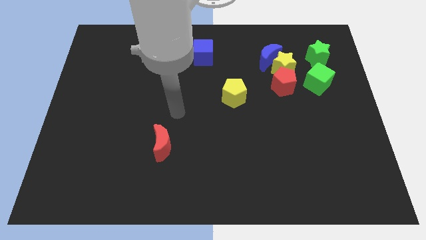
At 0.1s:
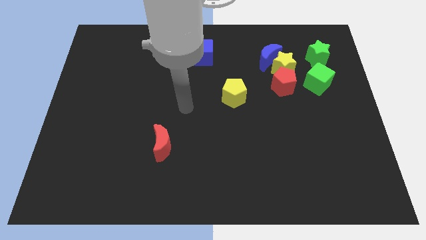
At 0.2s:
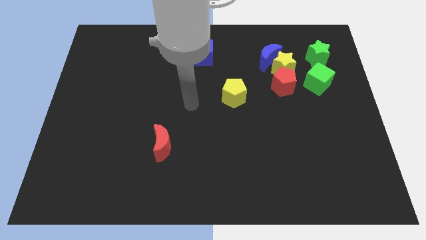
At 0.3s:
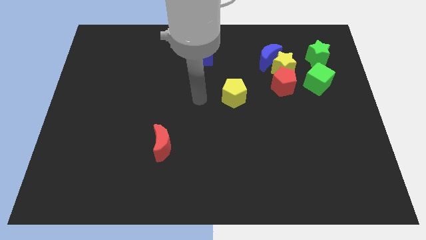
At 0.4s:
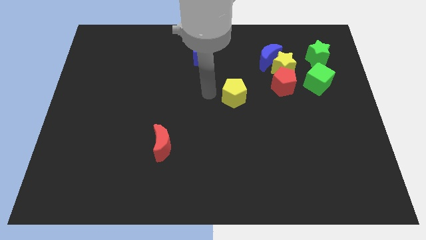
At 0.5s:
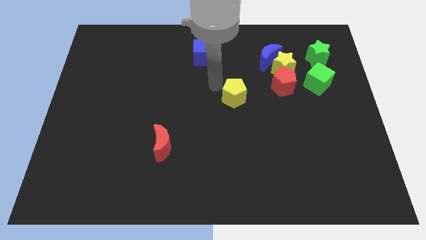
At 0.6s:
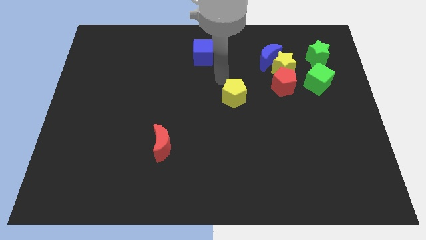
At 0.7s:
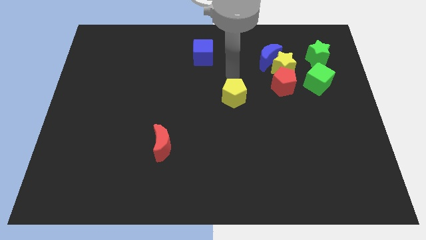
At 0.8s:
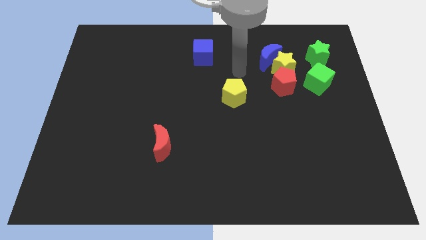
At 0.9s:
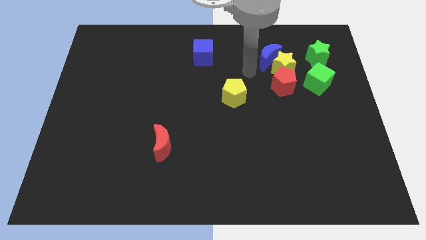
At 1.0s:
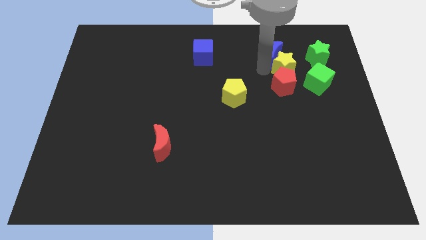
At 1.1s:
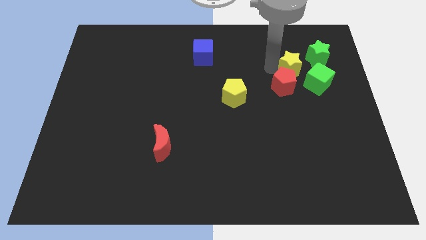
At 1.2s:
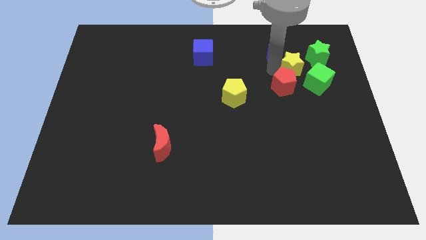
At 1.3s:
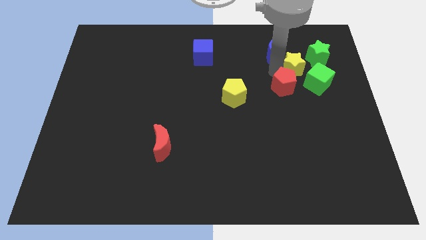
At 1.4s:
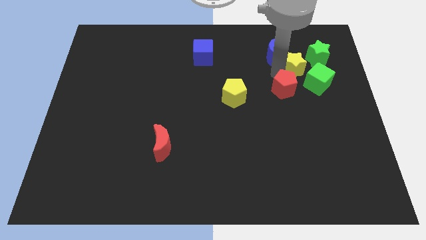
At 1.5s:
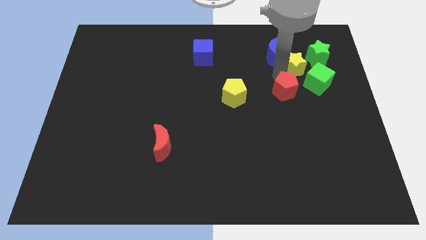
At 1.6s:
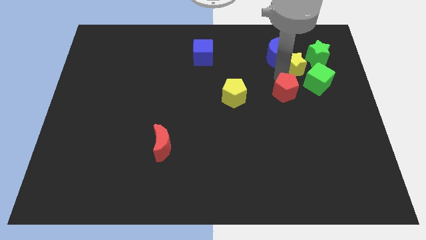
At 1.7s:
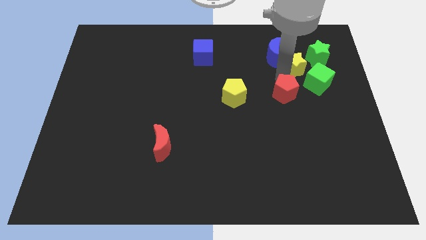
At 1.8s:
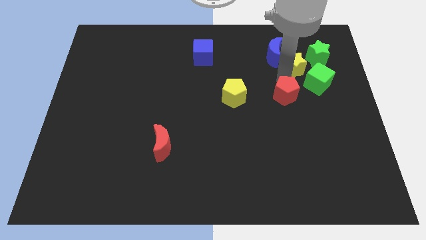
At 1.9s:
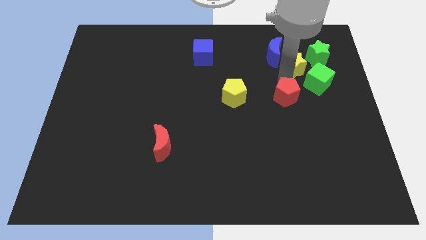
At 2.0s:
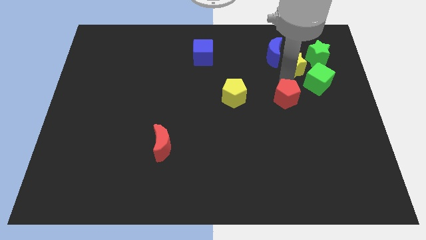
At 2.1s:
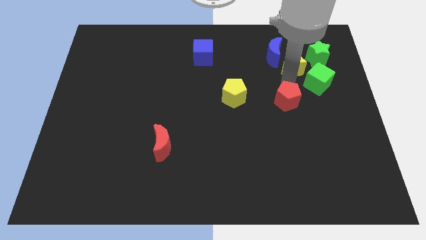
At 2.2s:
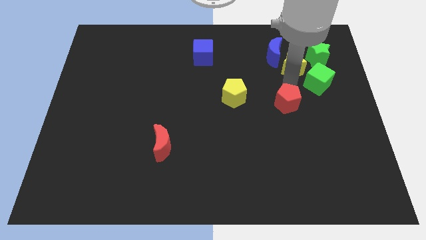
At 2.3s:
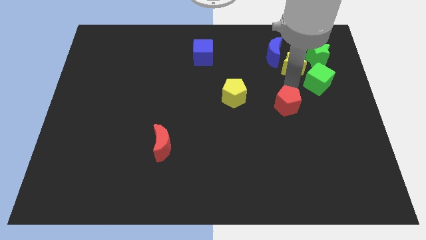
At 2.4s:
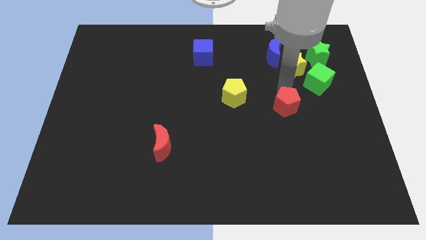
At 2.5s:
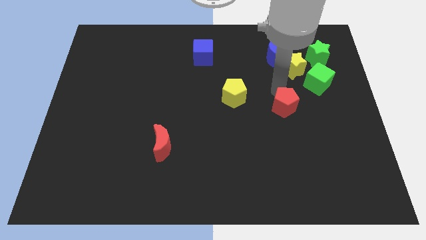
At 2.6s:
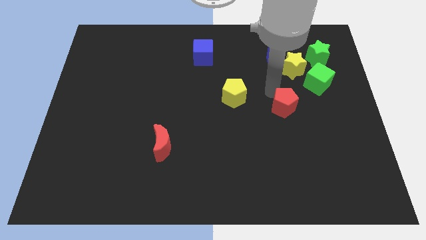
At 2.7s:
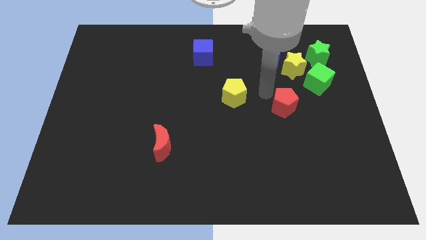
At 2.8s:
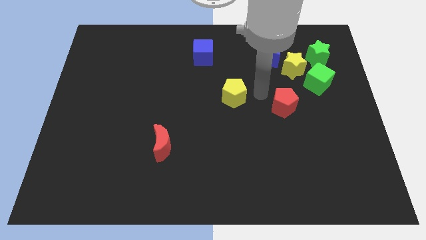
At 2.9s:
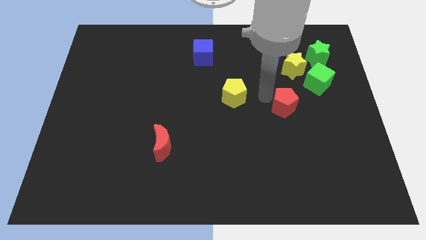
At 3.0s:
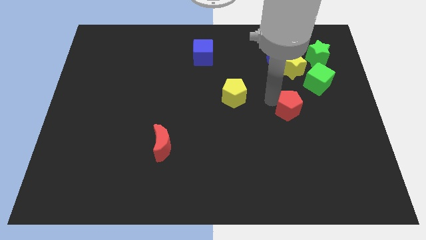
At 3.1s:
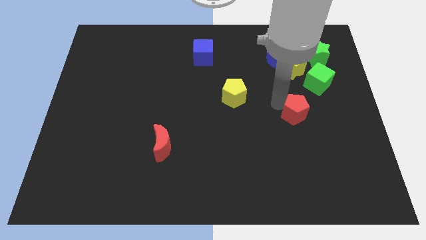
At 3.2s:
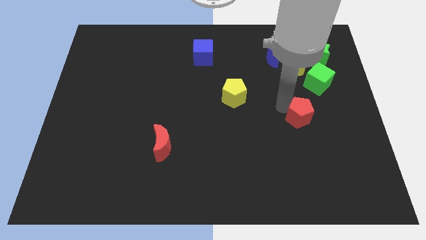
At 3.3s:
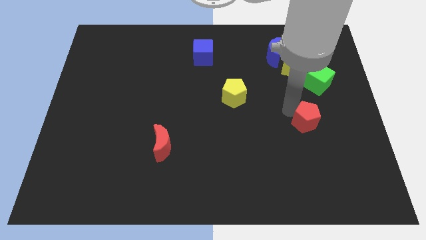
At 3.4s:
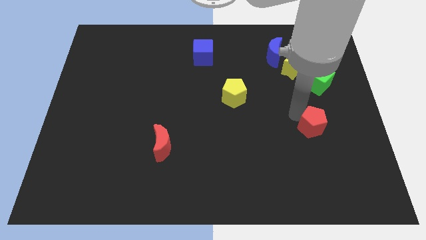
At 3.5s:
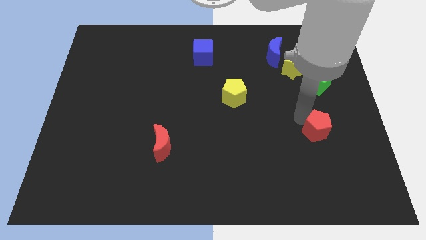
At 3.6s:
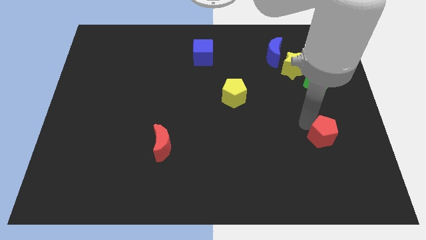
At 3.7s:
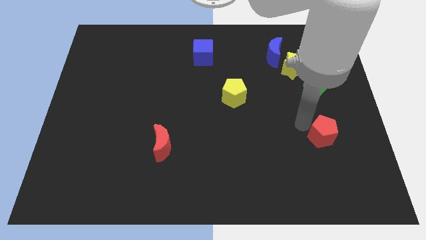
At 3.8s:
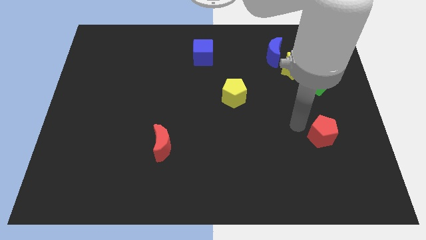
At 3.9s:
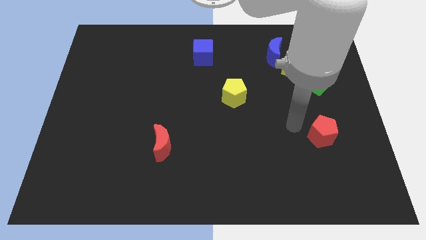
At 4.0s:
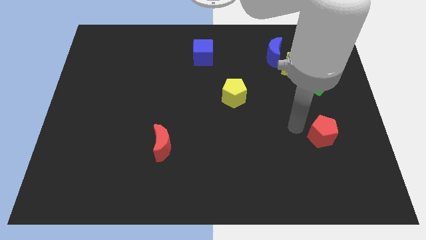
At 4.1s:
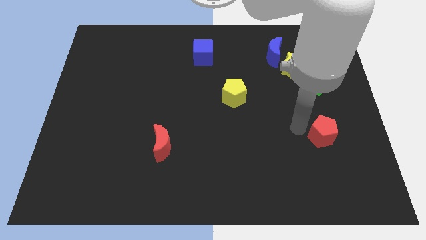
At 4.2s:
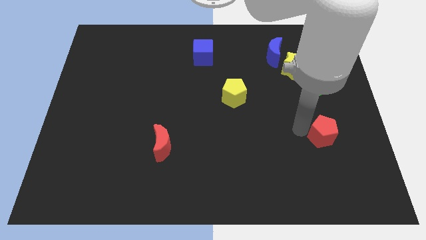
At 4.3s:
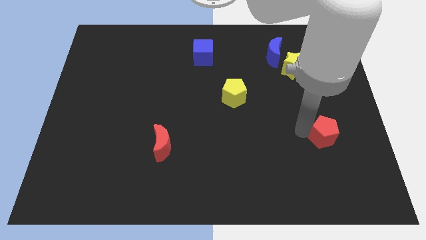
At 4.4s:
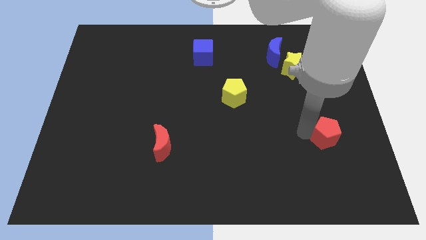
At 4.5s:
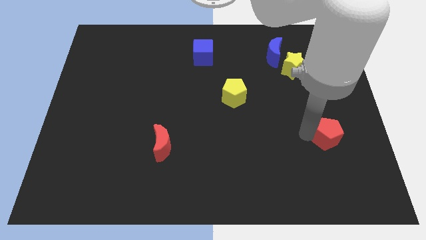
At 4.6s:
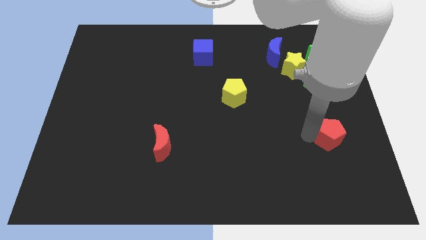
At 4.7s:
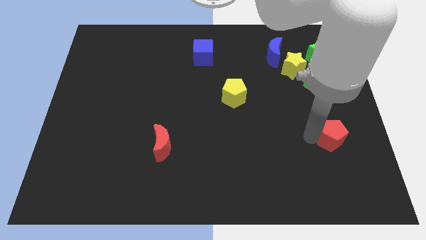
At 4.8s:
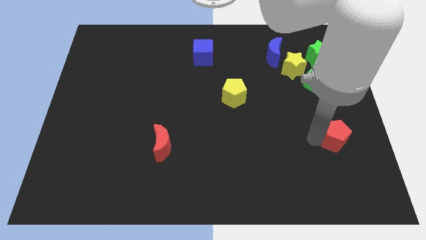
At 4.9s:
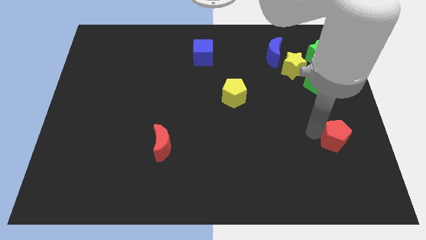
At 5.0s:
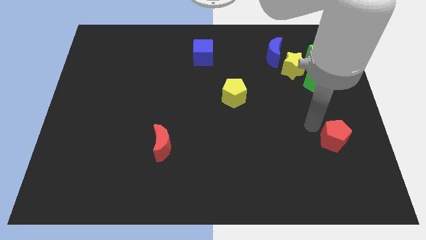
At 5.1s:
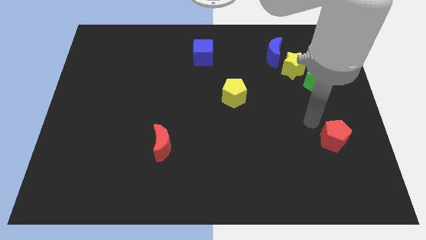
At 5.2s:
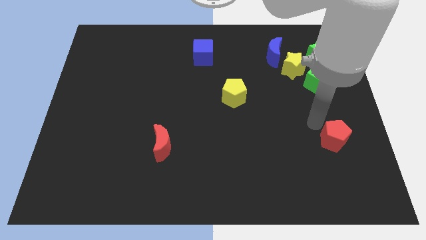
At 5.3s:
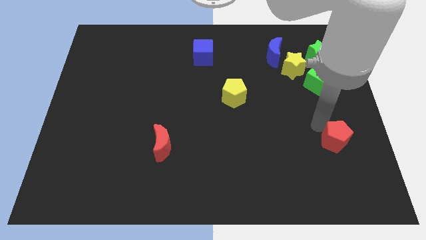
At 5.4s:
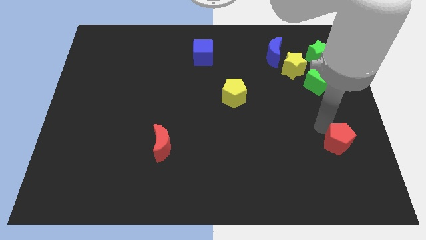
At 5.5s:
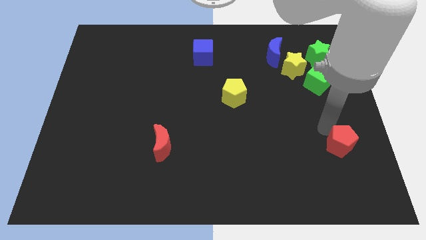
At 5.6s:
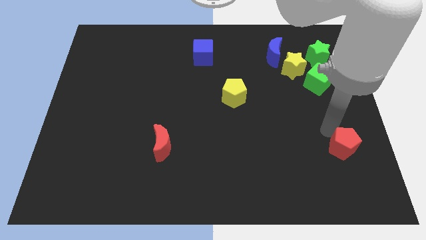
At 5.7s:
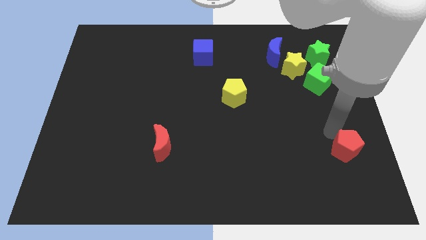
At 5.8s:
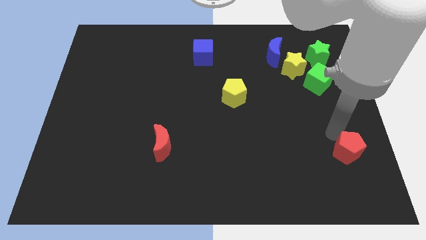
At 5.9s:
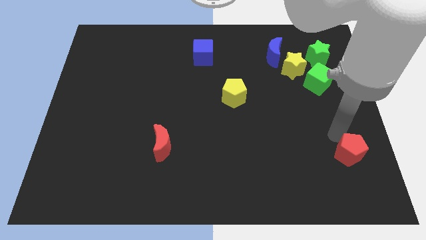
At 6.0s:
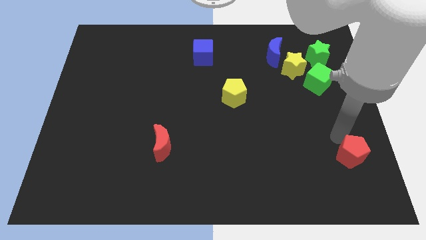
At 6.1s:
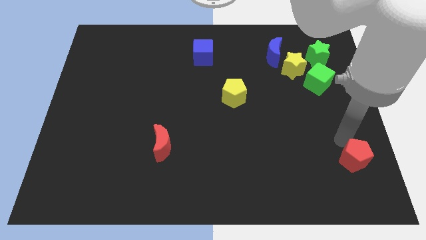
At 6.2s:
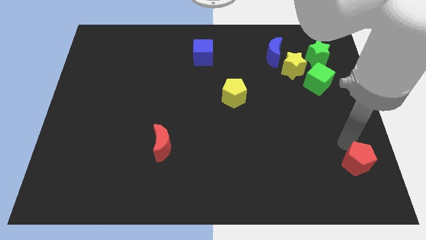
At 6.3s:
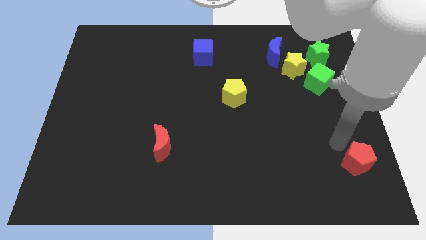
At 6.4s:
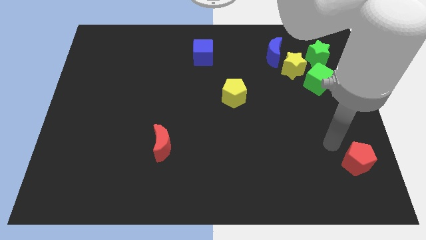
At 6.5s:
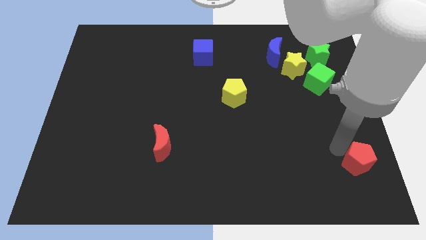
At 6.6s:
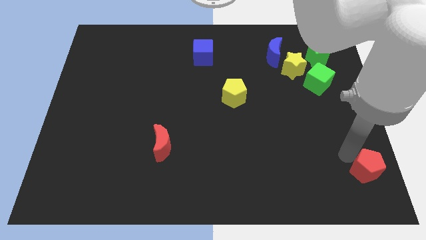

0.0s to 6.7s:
slide the red pentagon to the bottom right
